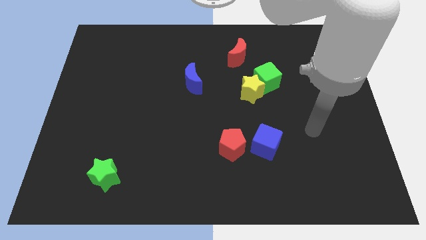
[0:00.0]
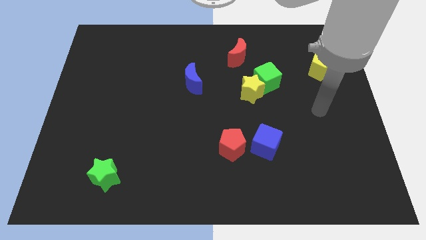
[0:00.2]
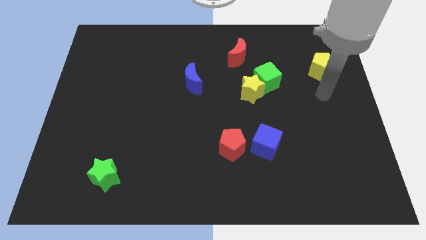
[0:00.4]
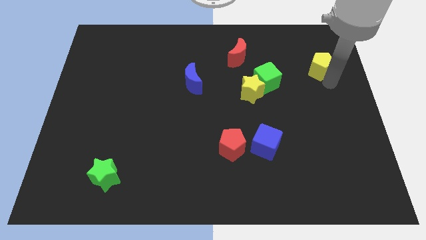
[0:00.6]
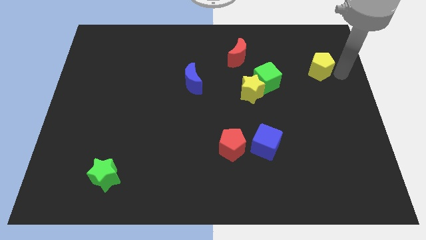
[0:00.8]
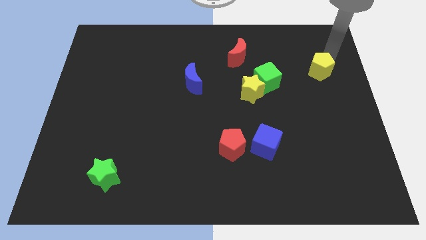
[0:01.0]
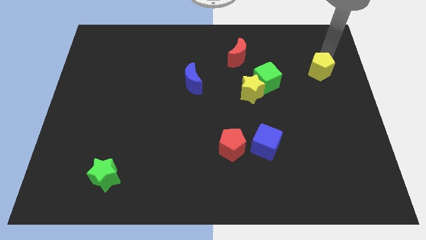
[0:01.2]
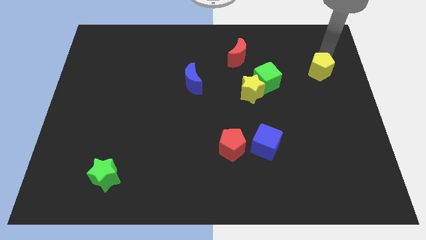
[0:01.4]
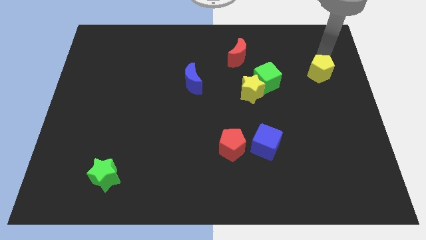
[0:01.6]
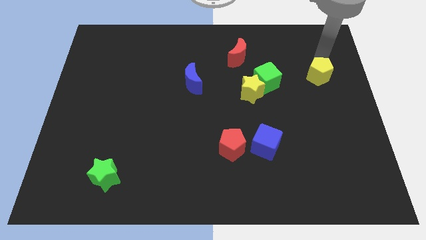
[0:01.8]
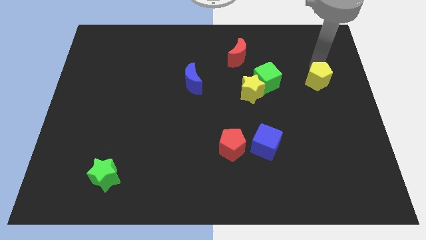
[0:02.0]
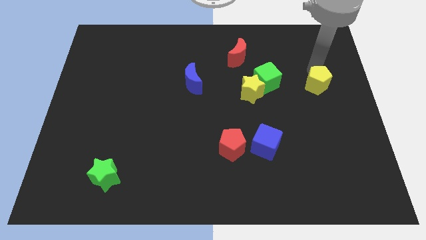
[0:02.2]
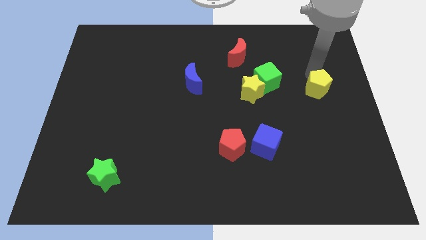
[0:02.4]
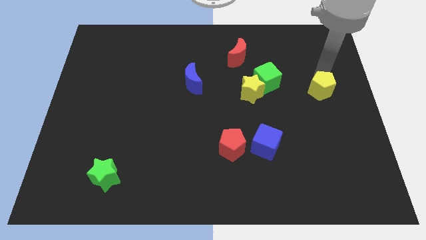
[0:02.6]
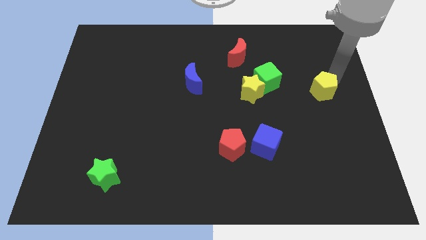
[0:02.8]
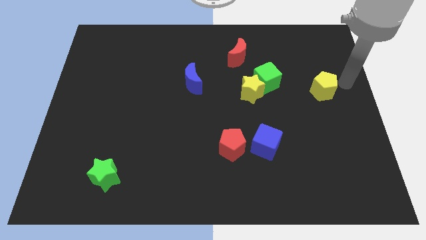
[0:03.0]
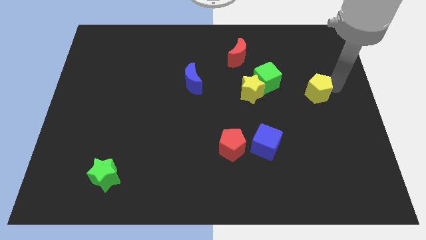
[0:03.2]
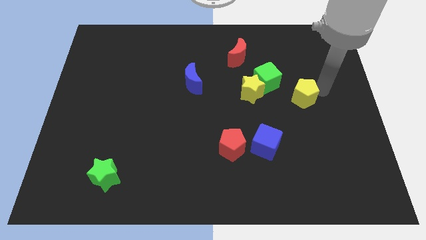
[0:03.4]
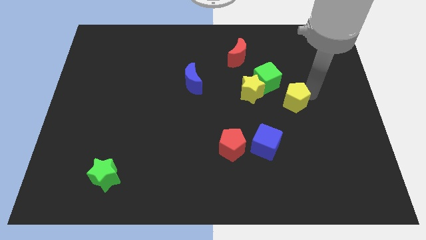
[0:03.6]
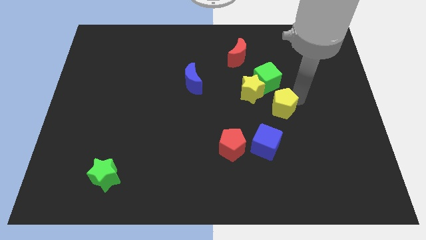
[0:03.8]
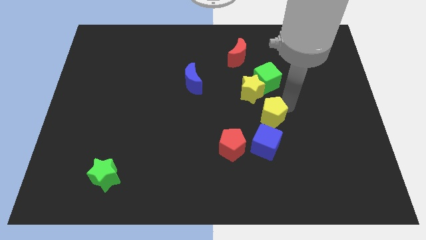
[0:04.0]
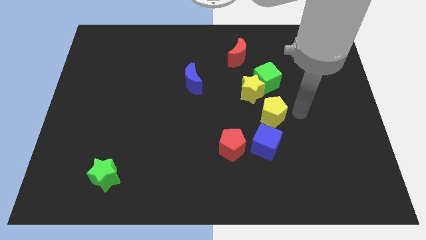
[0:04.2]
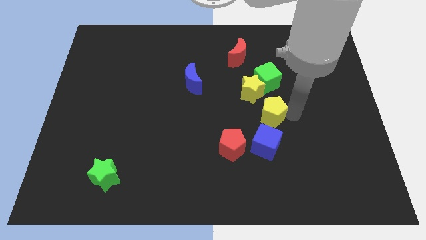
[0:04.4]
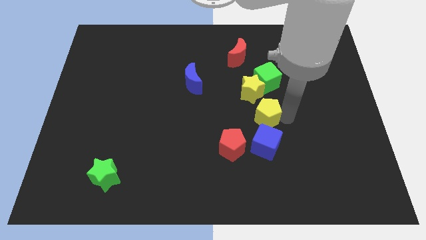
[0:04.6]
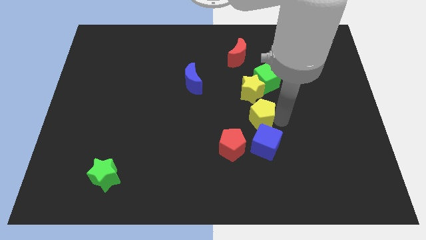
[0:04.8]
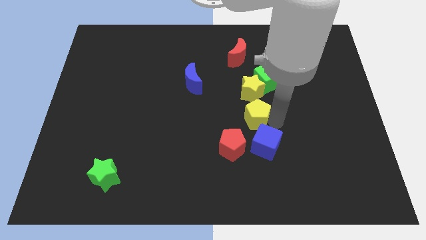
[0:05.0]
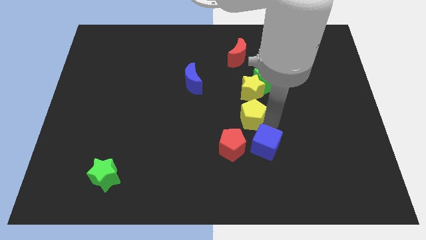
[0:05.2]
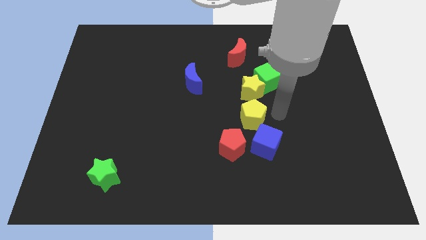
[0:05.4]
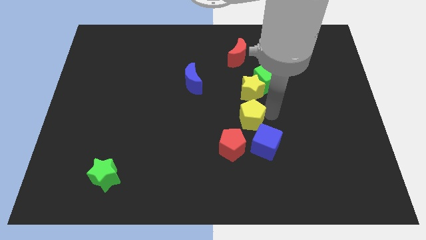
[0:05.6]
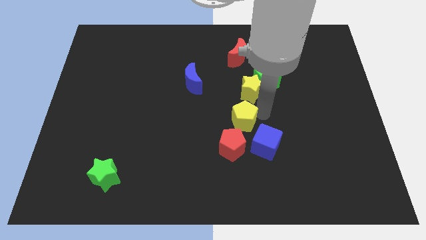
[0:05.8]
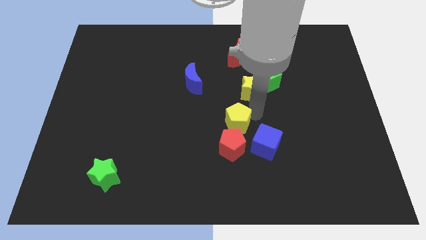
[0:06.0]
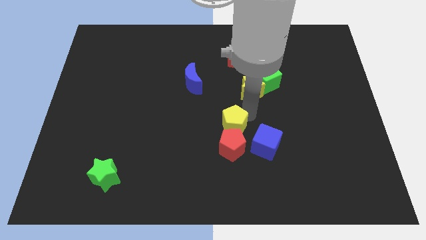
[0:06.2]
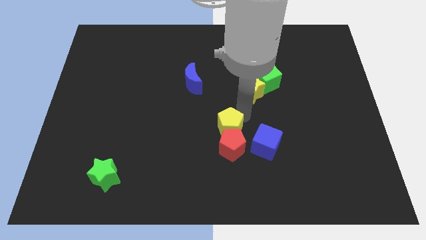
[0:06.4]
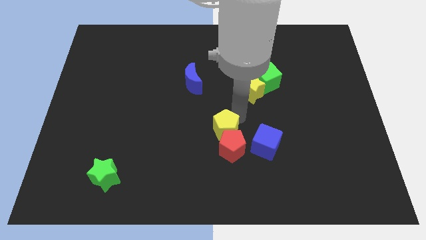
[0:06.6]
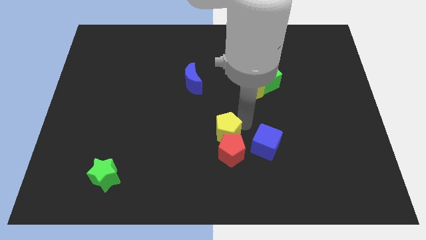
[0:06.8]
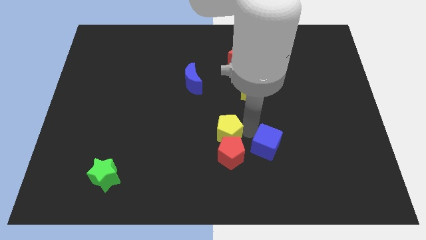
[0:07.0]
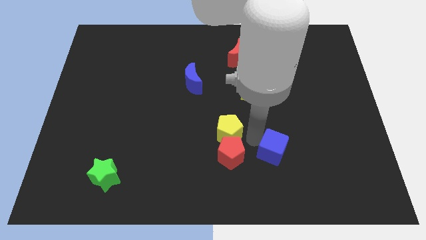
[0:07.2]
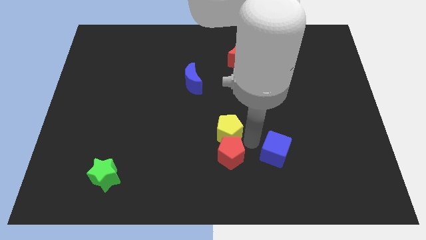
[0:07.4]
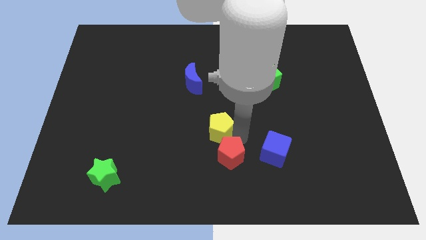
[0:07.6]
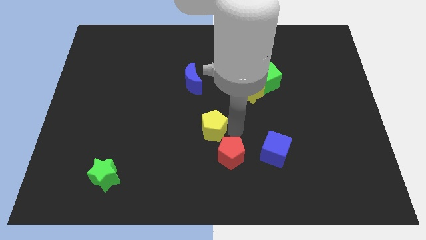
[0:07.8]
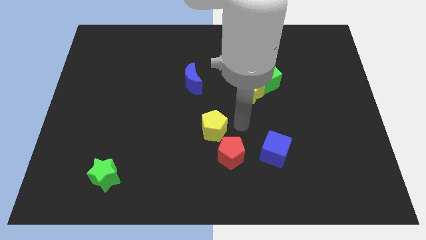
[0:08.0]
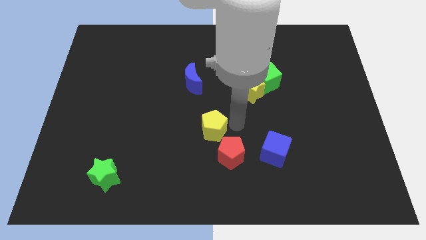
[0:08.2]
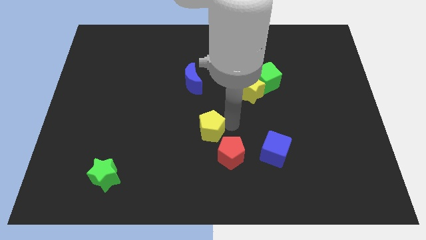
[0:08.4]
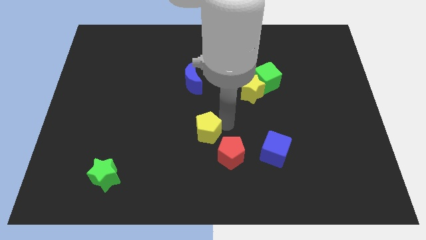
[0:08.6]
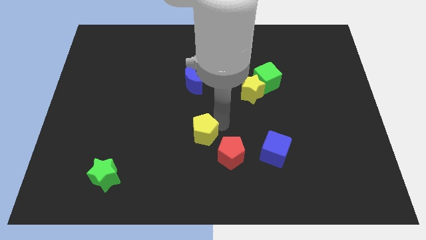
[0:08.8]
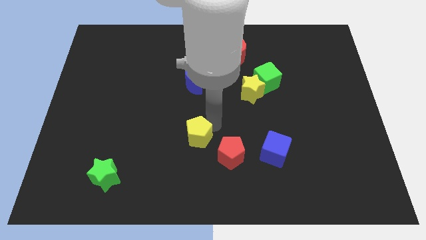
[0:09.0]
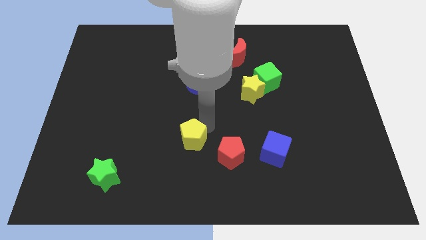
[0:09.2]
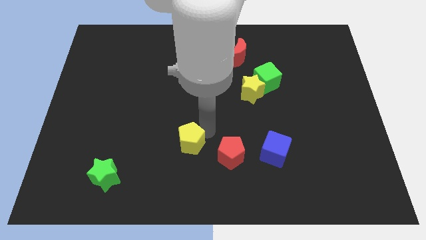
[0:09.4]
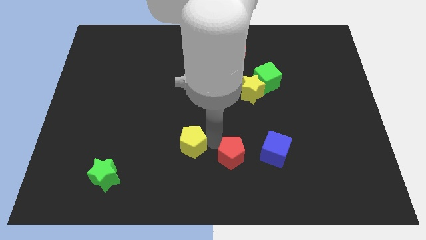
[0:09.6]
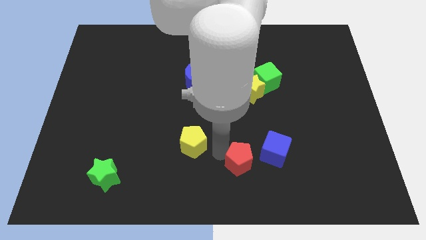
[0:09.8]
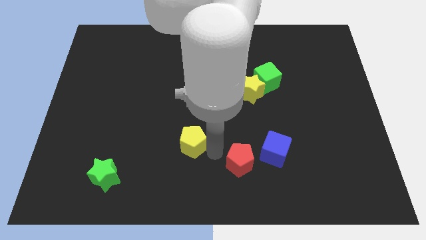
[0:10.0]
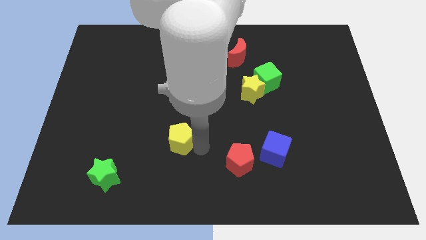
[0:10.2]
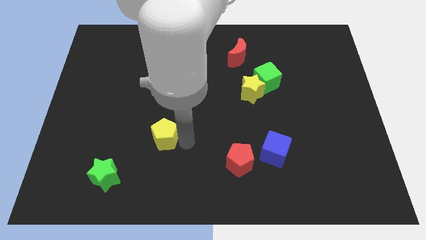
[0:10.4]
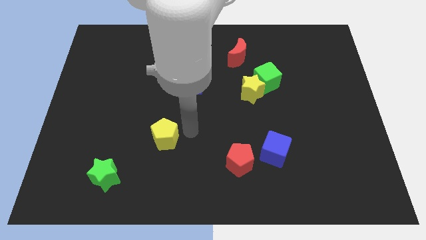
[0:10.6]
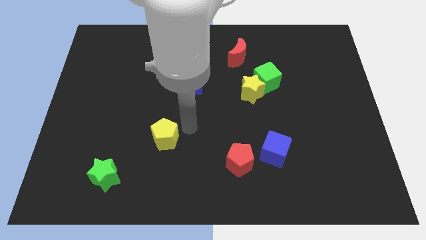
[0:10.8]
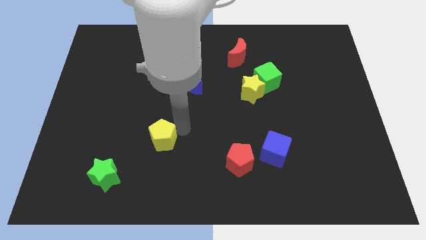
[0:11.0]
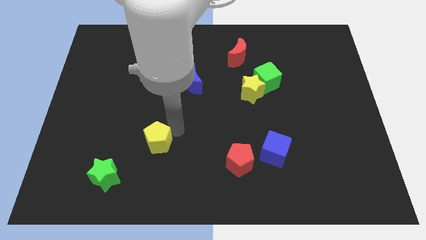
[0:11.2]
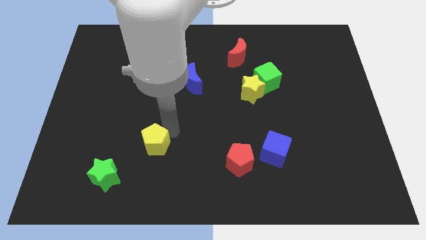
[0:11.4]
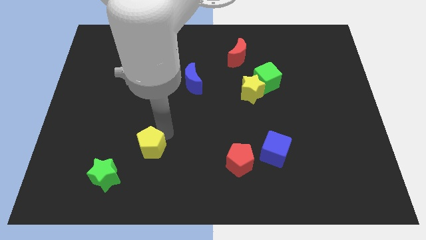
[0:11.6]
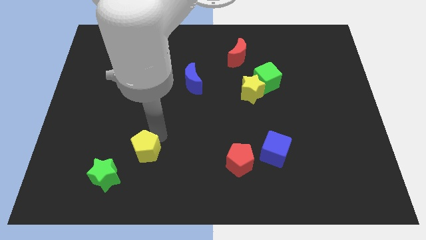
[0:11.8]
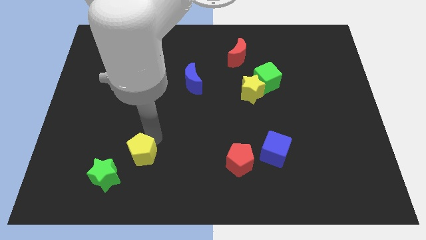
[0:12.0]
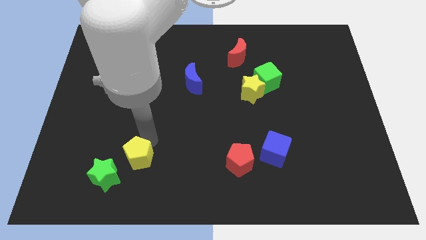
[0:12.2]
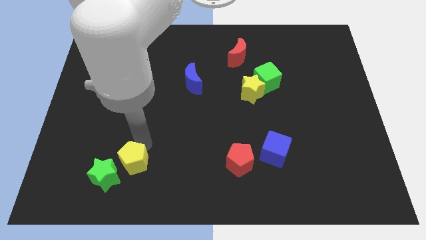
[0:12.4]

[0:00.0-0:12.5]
push the yellow pentagon towards the green star

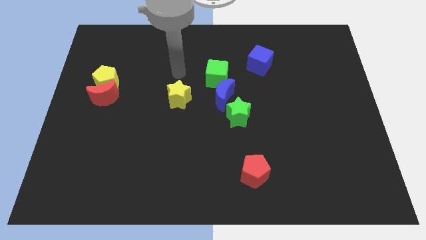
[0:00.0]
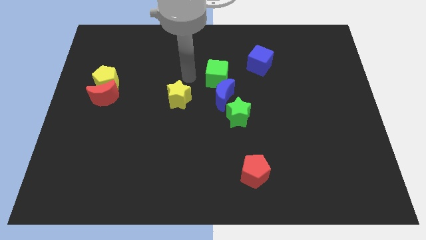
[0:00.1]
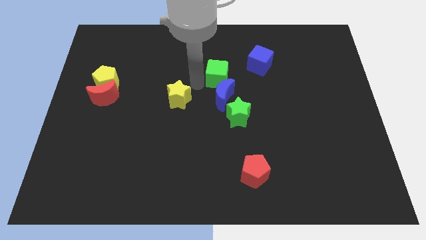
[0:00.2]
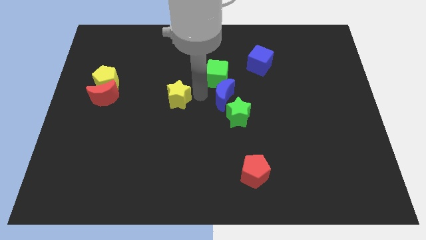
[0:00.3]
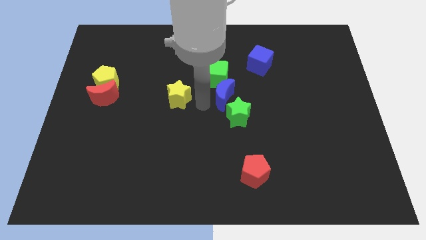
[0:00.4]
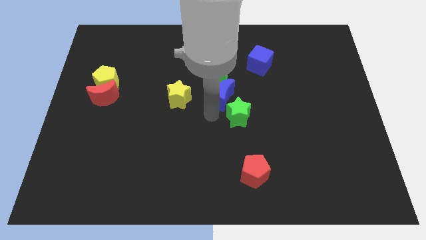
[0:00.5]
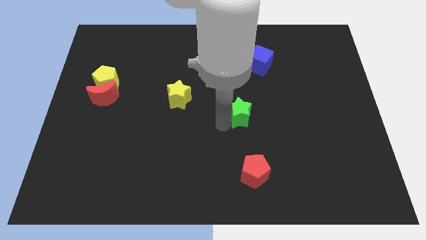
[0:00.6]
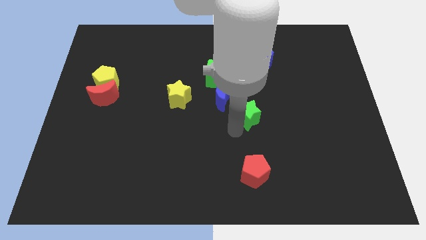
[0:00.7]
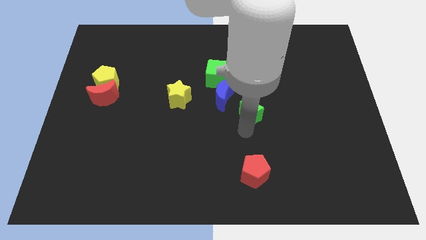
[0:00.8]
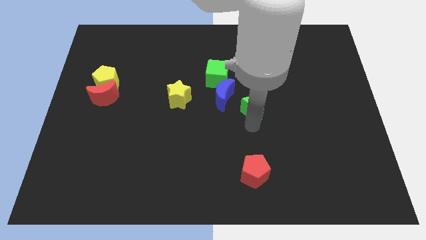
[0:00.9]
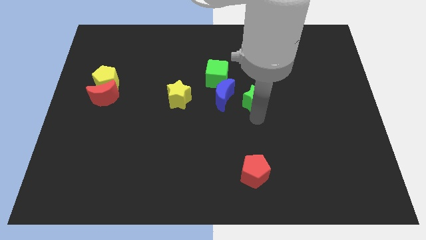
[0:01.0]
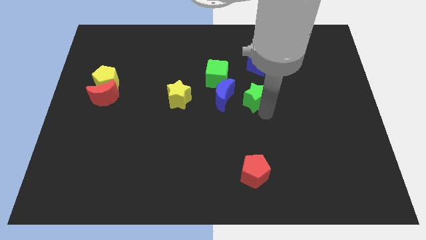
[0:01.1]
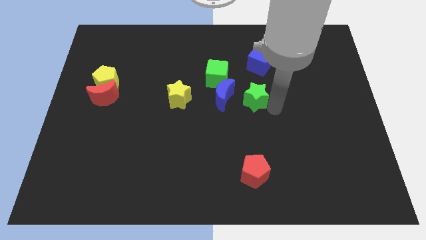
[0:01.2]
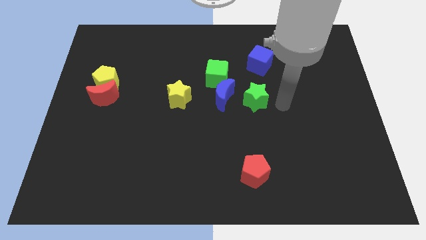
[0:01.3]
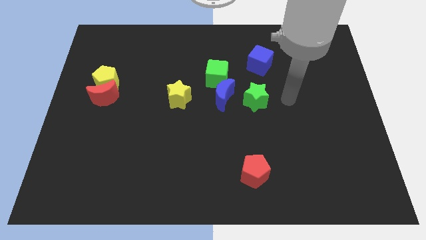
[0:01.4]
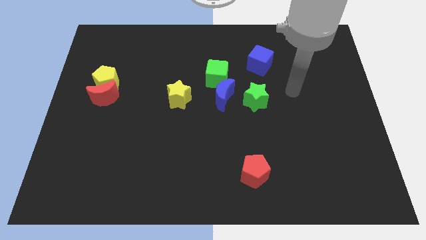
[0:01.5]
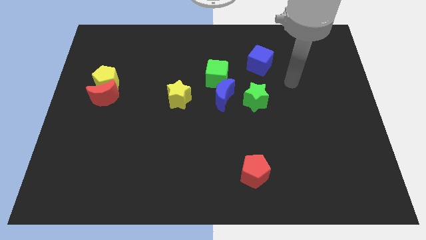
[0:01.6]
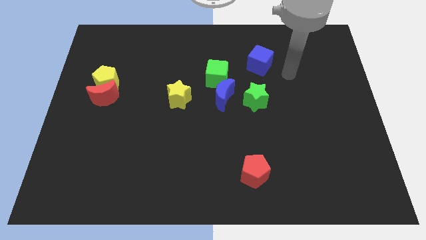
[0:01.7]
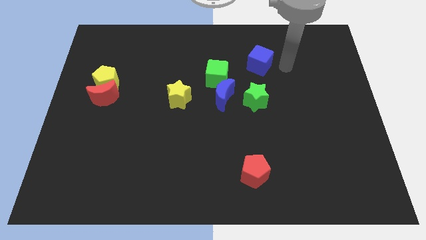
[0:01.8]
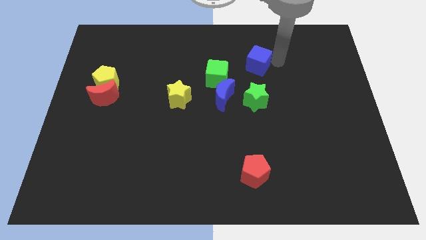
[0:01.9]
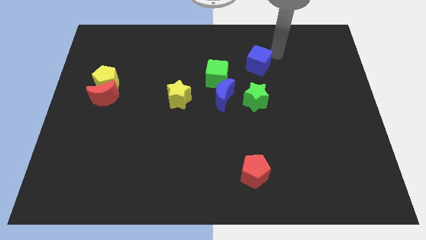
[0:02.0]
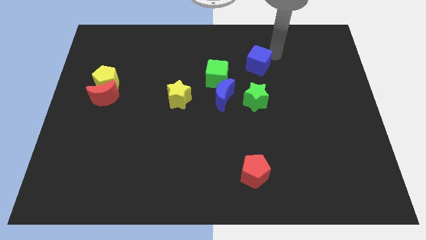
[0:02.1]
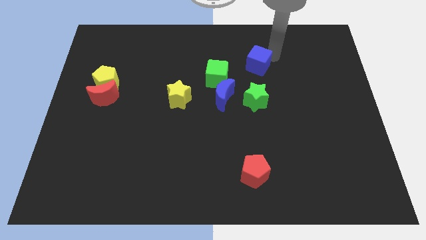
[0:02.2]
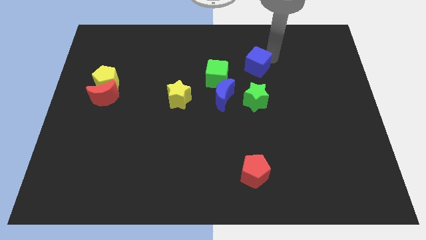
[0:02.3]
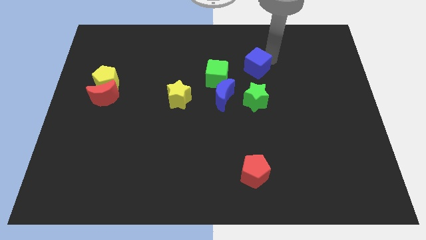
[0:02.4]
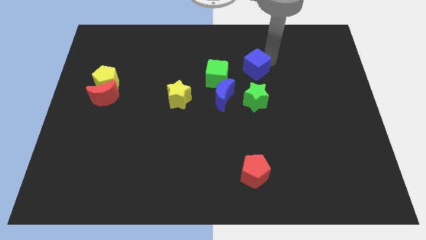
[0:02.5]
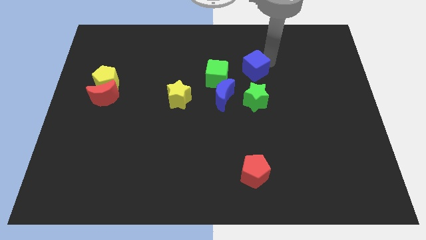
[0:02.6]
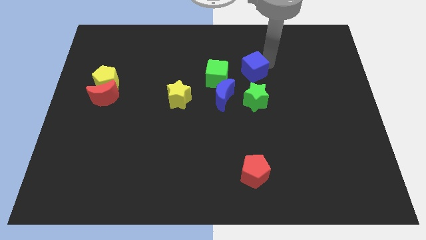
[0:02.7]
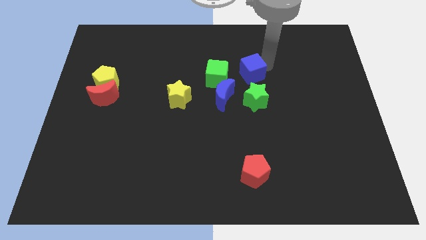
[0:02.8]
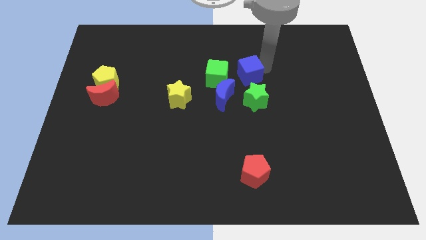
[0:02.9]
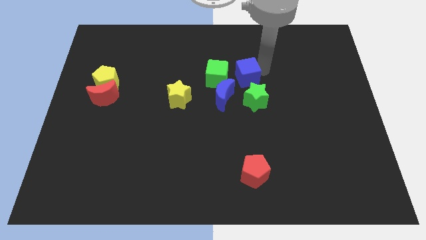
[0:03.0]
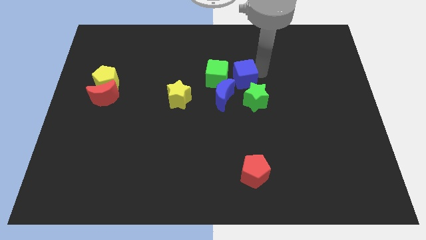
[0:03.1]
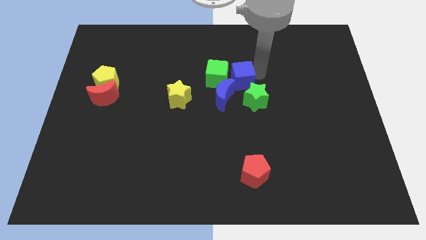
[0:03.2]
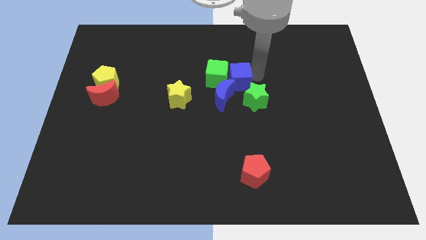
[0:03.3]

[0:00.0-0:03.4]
move the blue cube to the green cube
